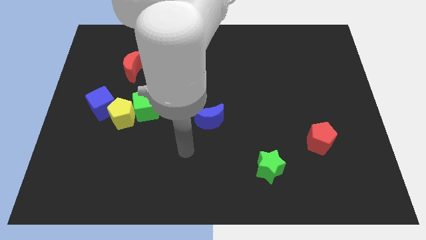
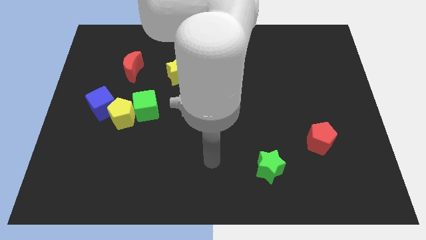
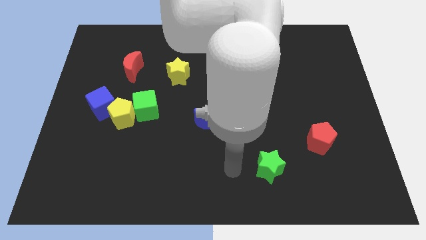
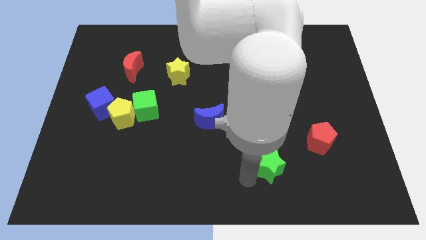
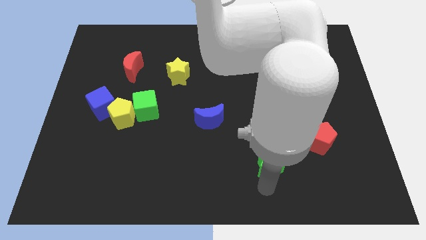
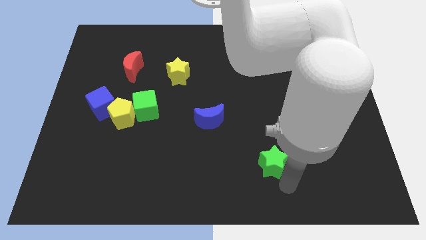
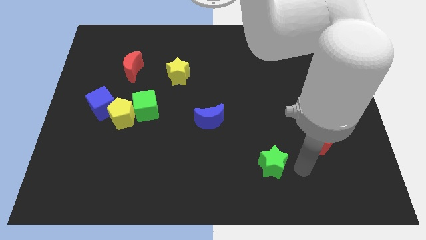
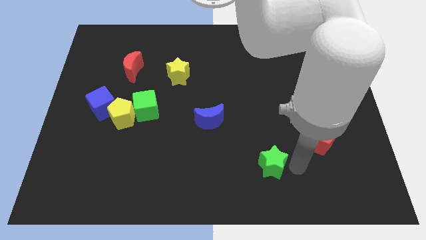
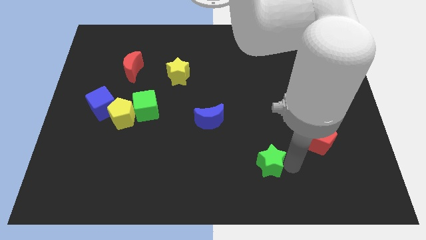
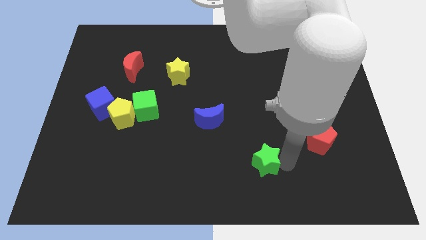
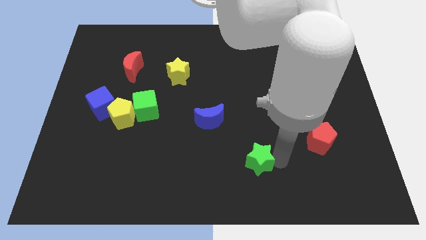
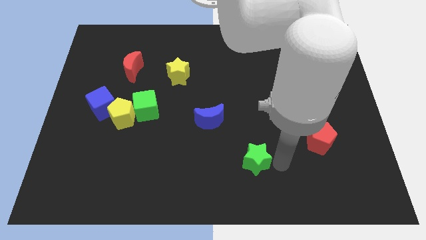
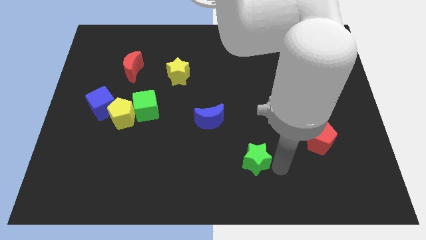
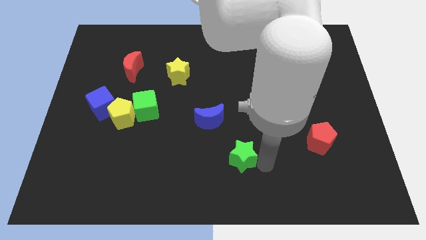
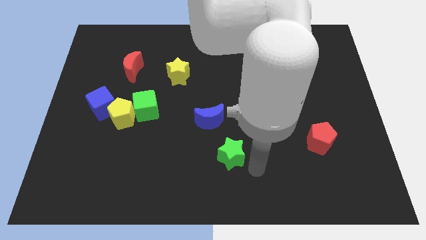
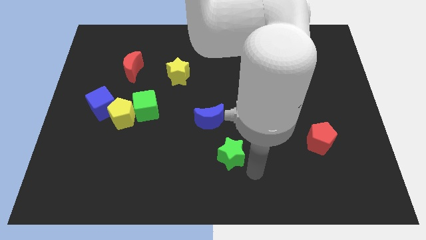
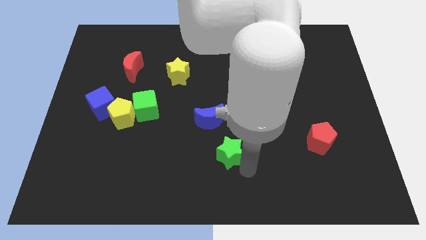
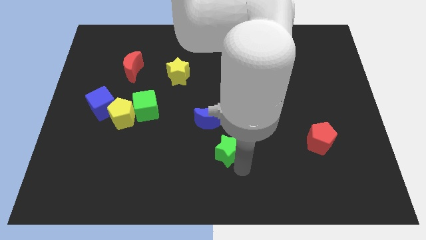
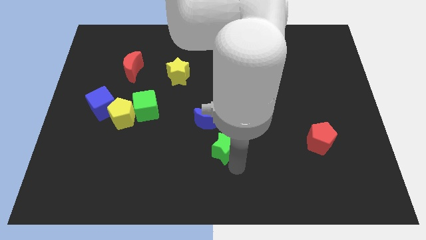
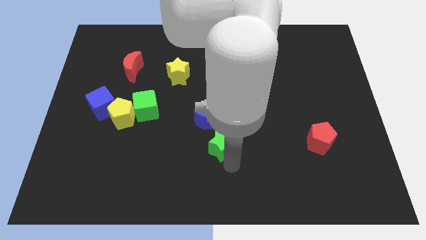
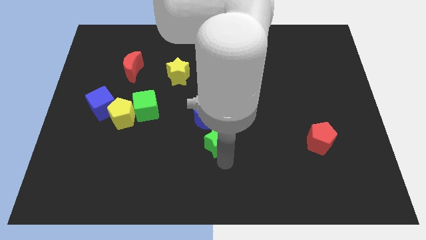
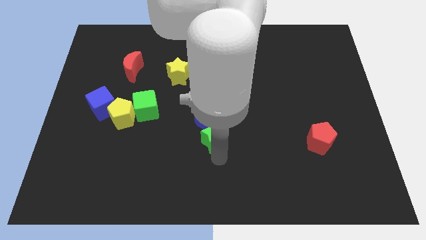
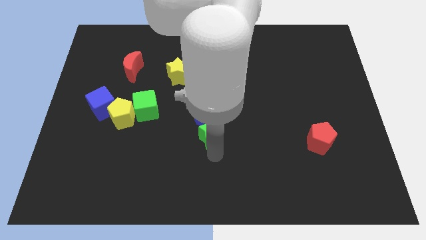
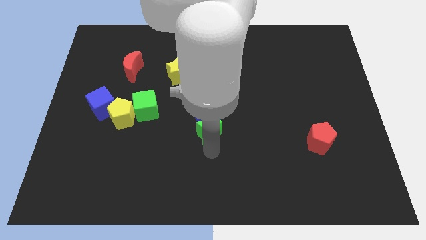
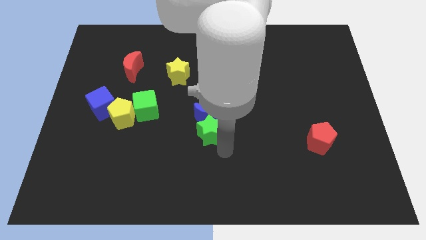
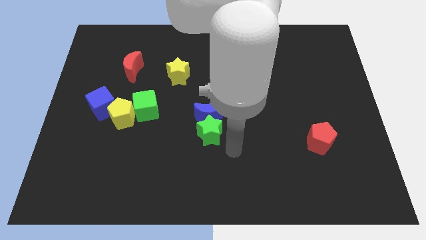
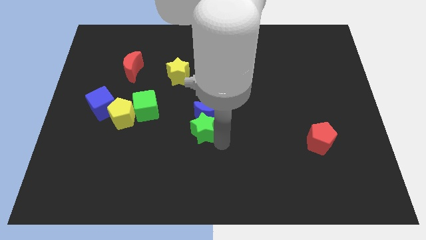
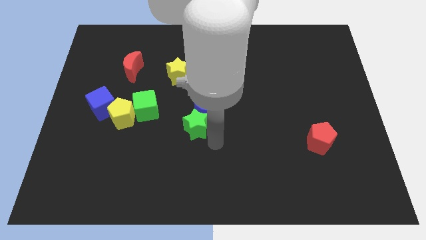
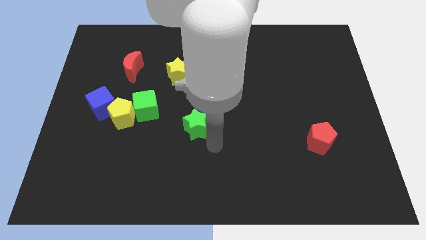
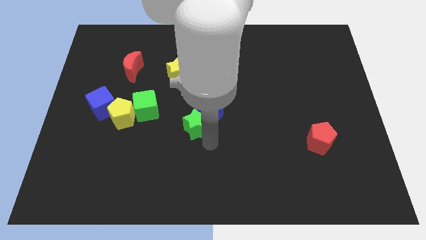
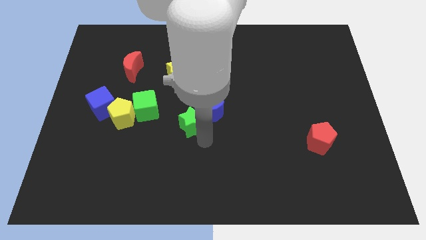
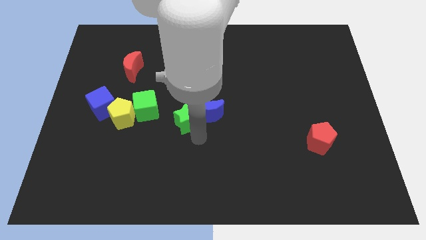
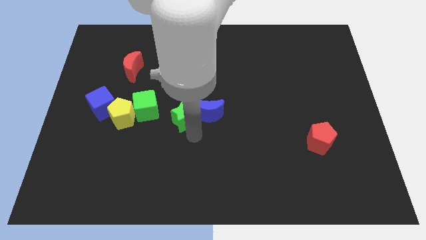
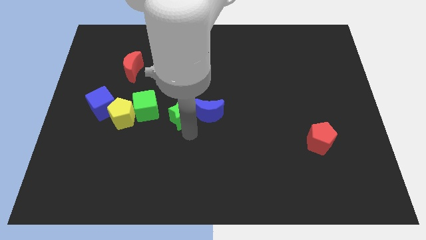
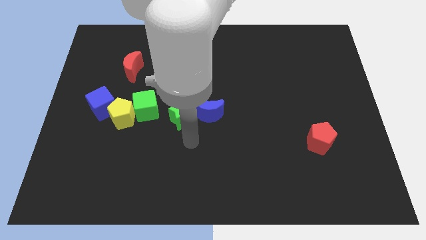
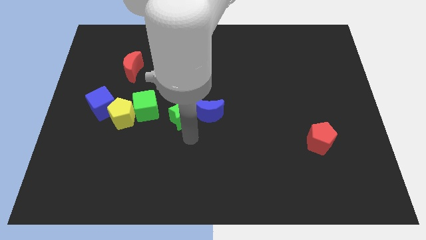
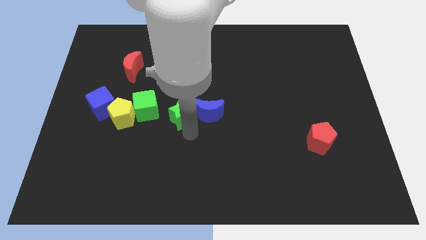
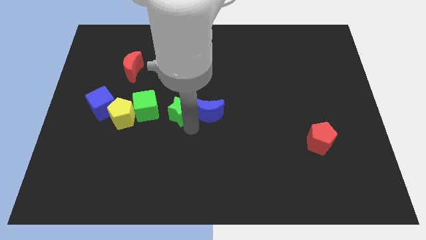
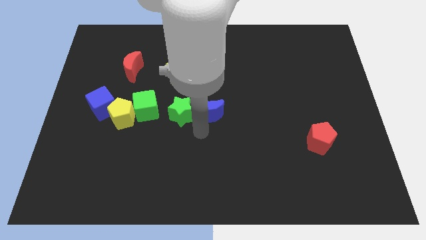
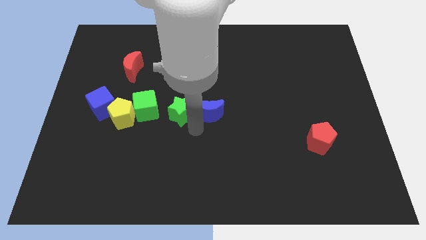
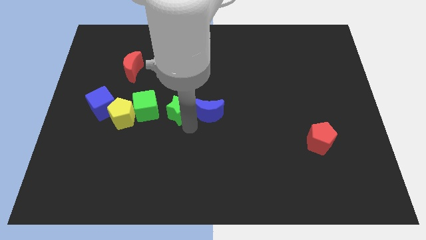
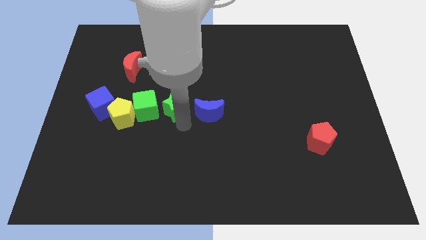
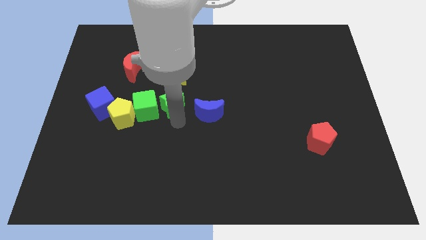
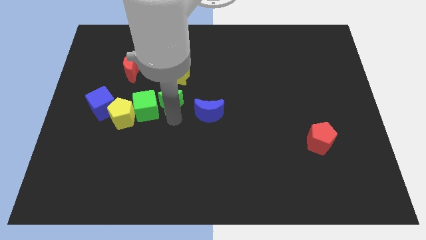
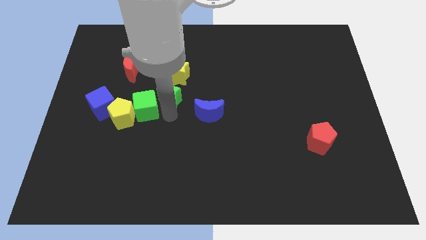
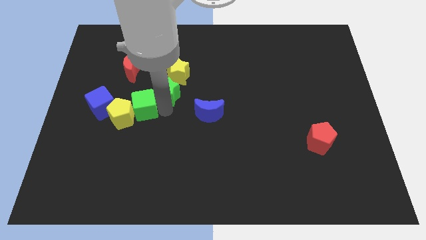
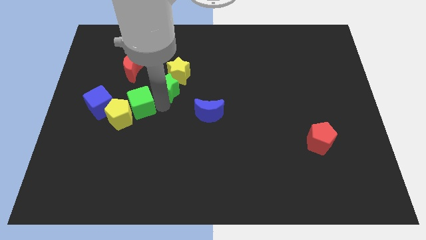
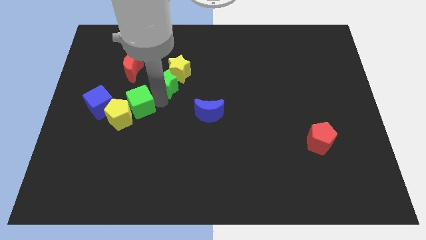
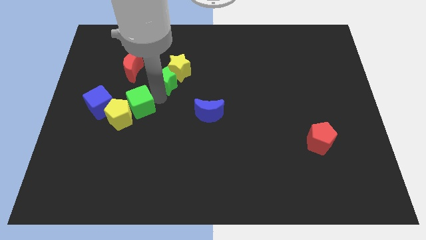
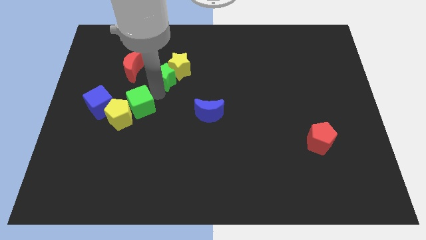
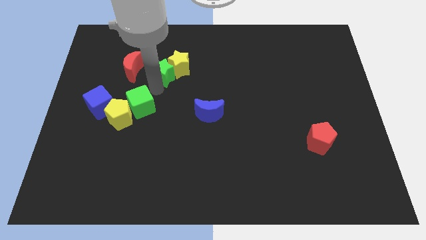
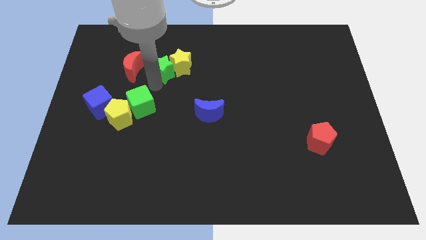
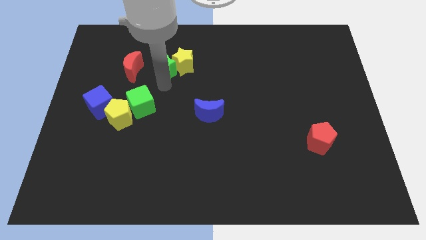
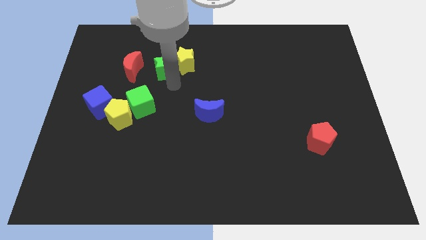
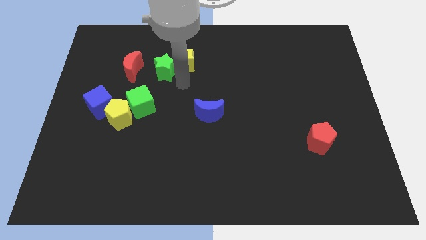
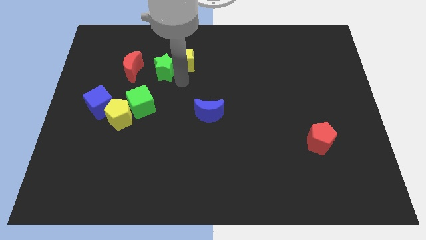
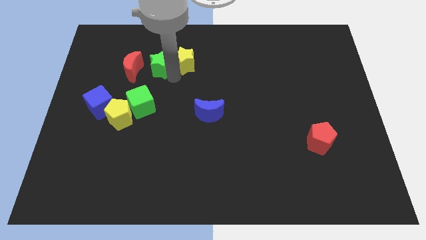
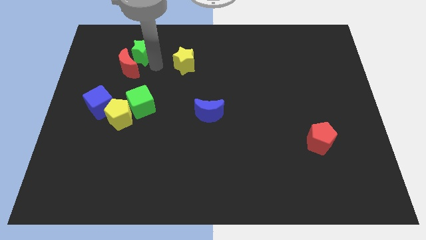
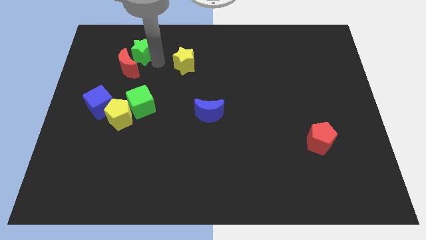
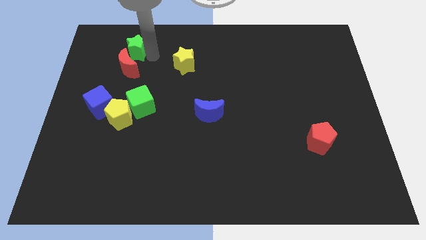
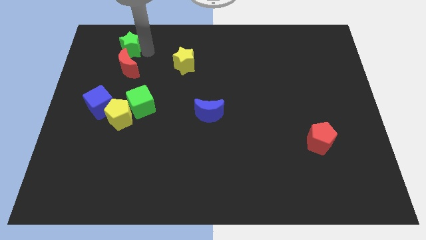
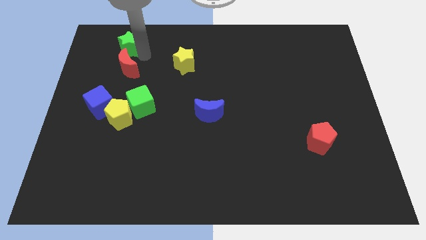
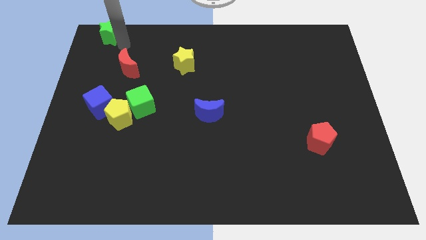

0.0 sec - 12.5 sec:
move the green star to the upper left corner

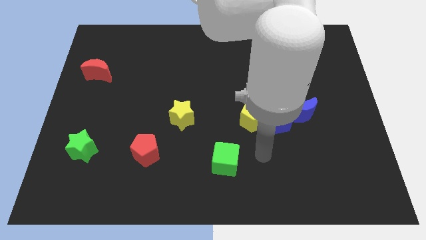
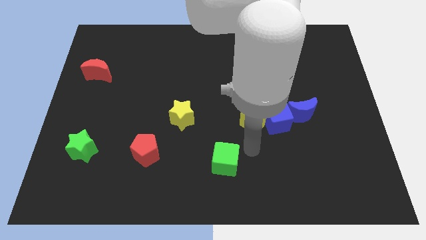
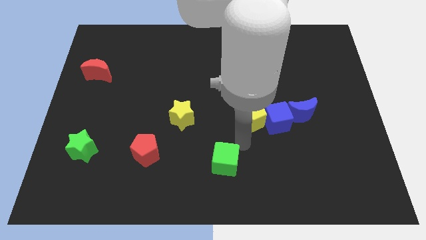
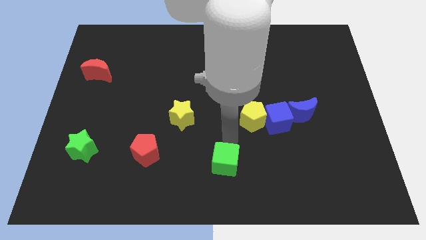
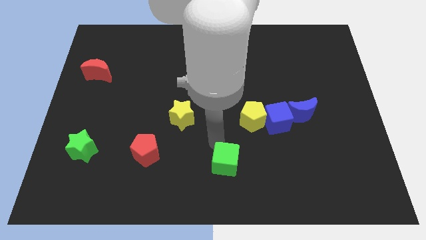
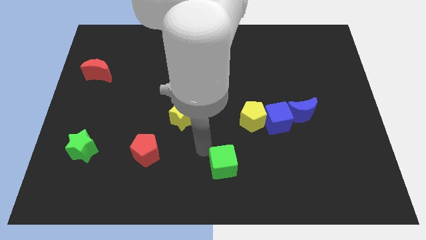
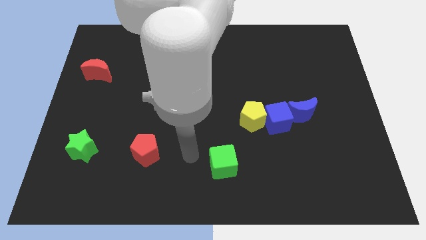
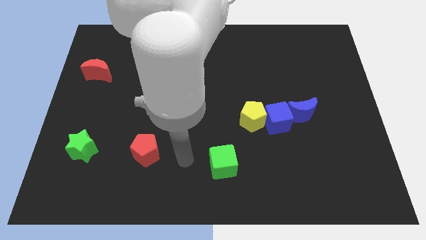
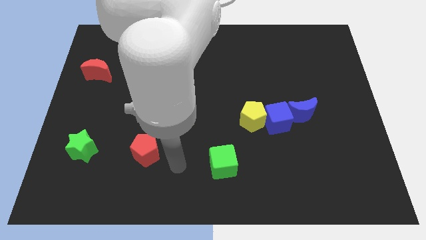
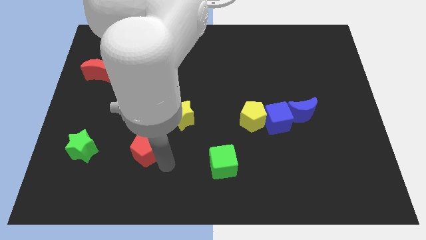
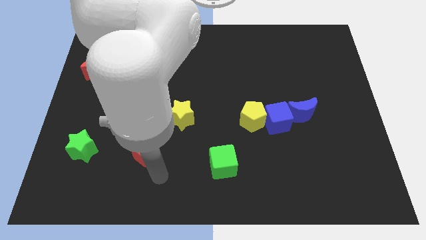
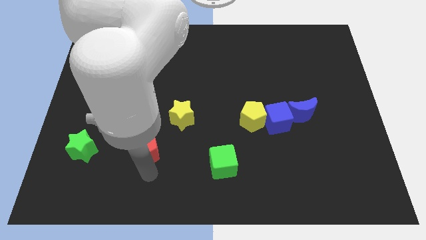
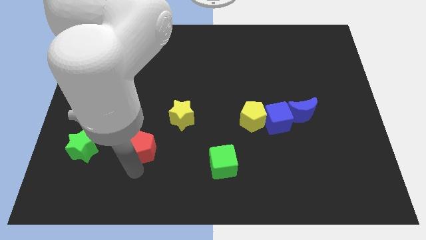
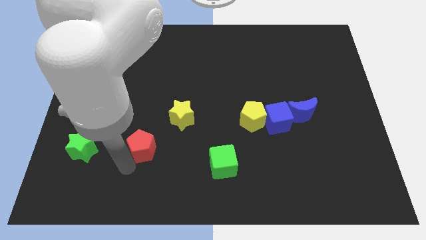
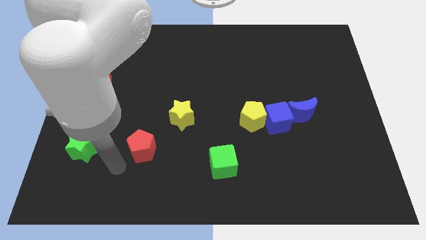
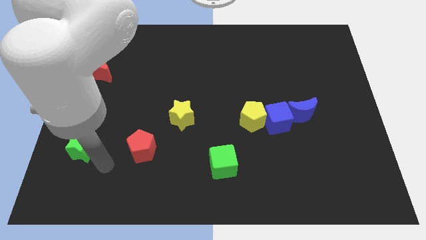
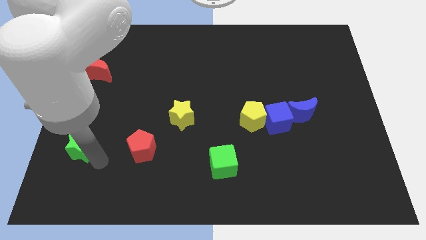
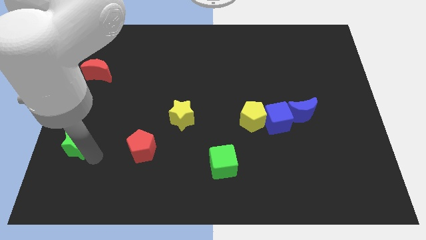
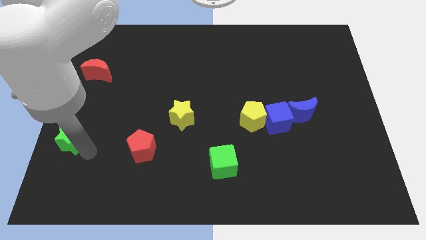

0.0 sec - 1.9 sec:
move the green star to the left side of the board
